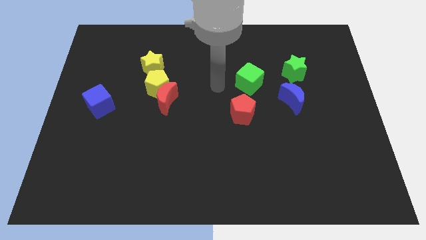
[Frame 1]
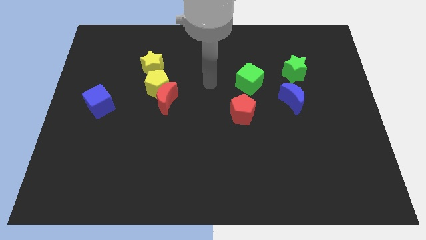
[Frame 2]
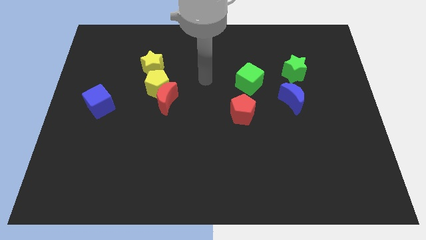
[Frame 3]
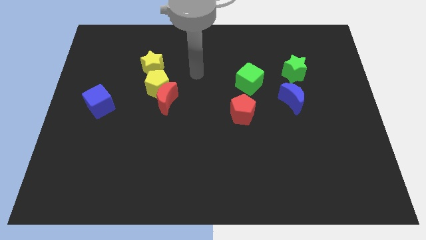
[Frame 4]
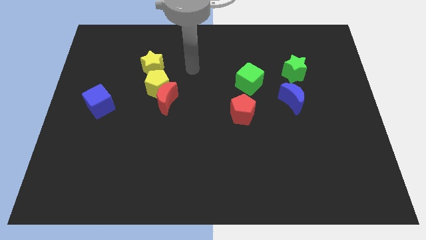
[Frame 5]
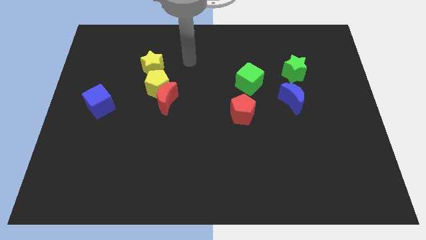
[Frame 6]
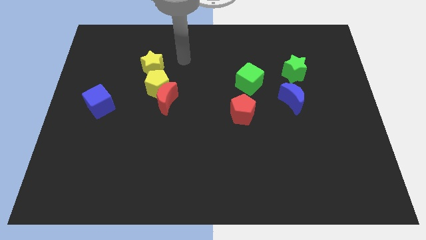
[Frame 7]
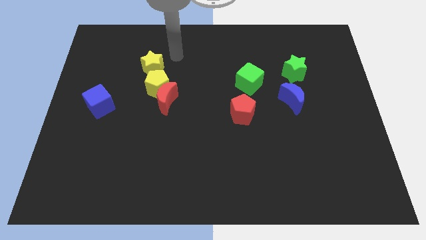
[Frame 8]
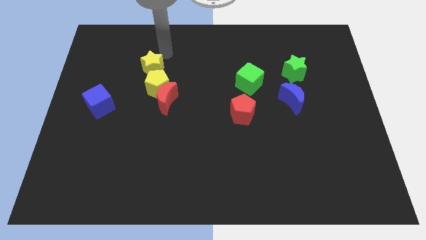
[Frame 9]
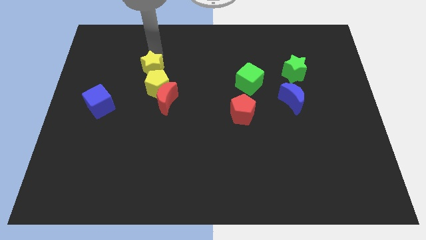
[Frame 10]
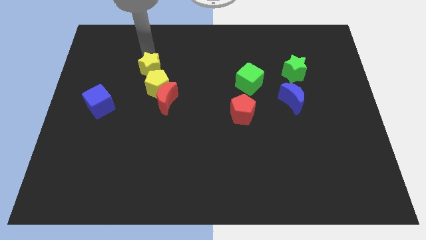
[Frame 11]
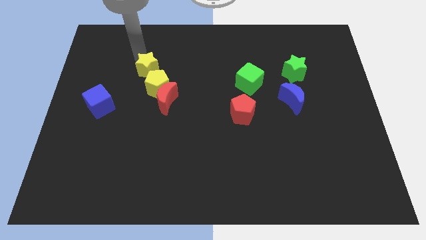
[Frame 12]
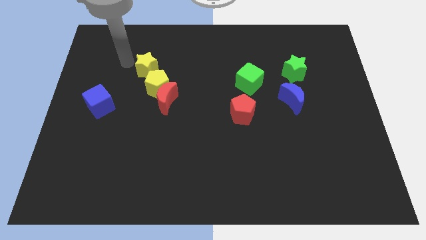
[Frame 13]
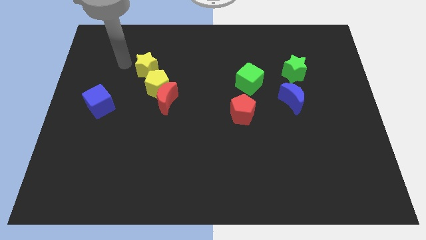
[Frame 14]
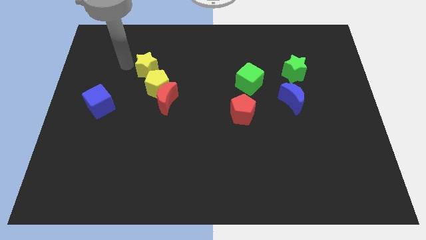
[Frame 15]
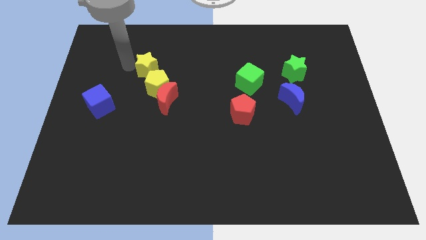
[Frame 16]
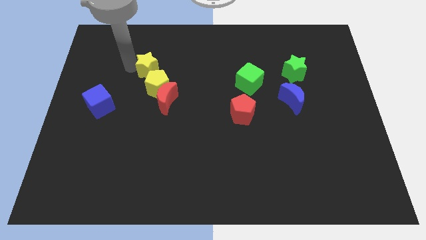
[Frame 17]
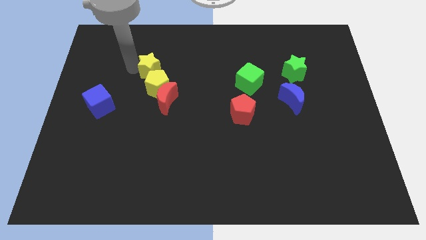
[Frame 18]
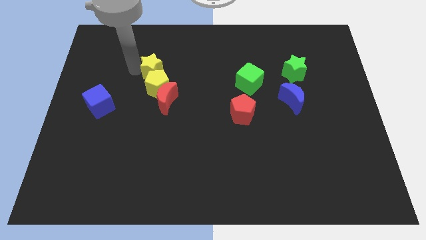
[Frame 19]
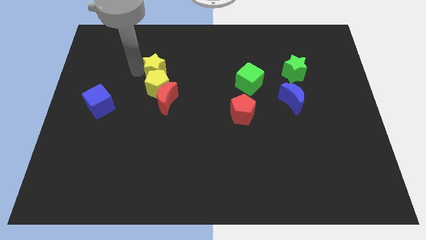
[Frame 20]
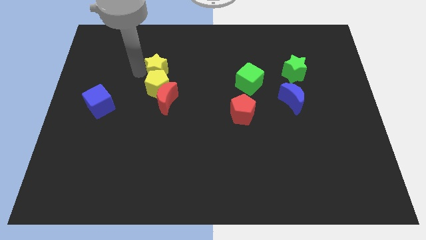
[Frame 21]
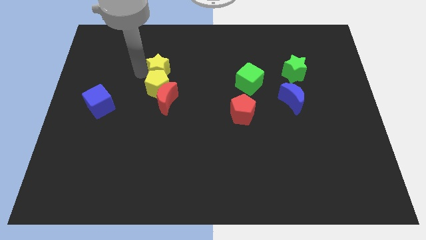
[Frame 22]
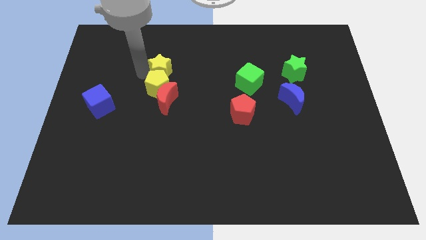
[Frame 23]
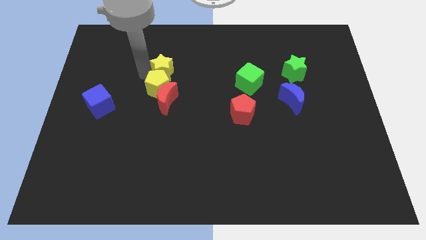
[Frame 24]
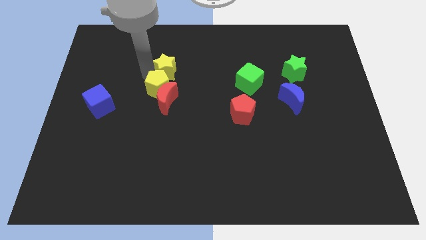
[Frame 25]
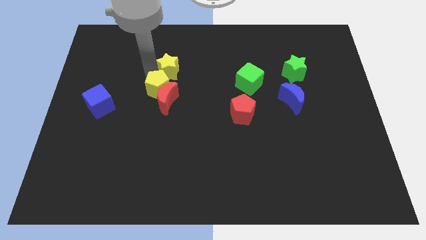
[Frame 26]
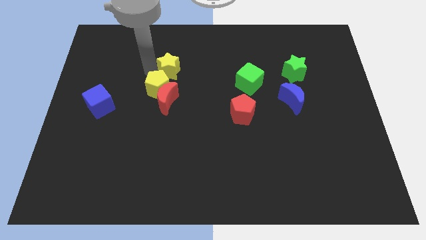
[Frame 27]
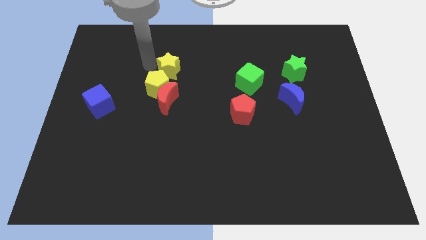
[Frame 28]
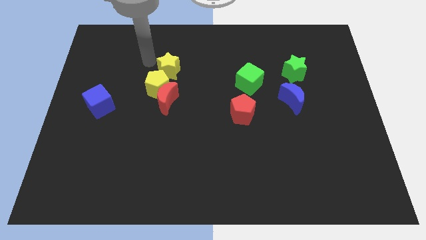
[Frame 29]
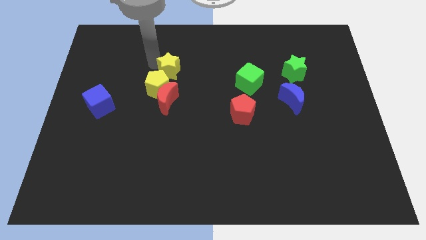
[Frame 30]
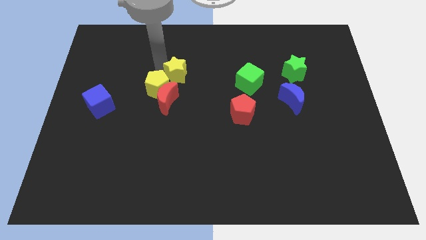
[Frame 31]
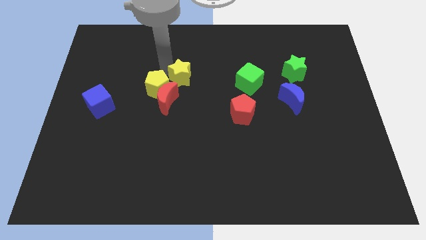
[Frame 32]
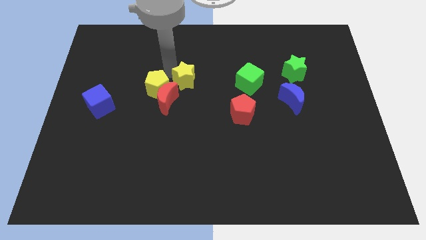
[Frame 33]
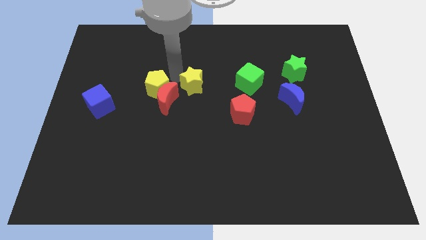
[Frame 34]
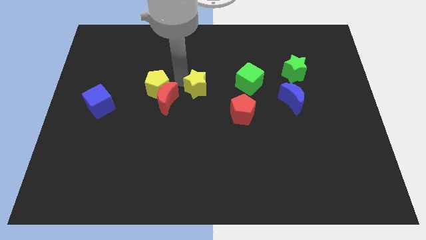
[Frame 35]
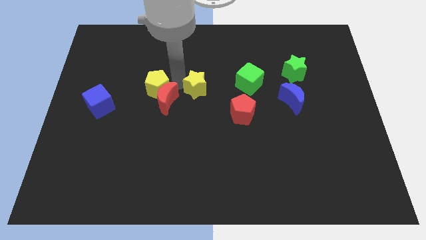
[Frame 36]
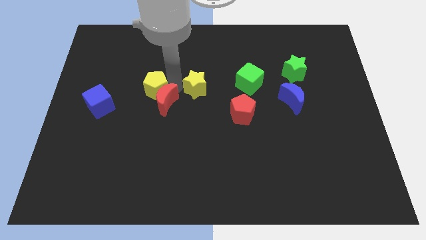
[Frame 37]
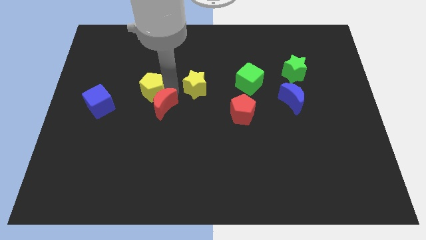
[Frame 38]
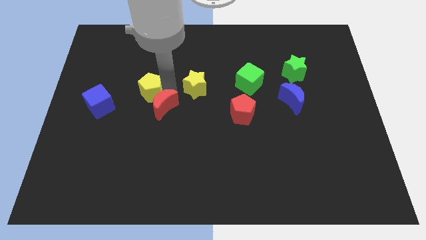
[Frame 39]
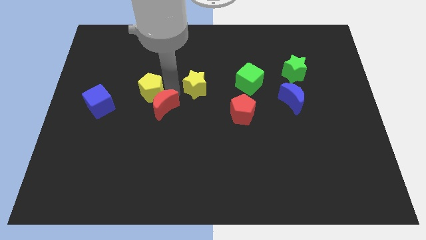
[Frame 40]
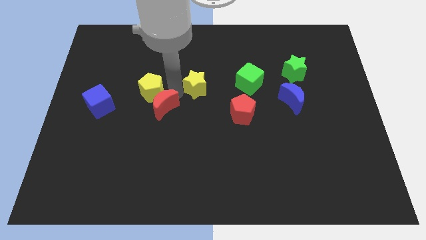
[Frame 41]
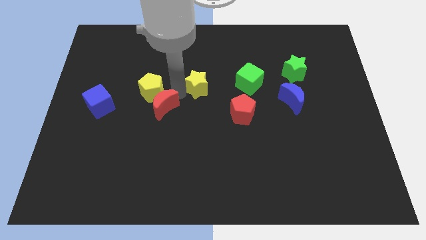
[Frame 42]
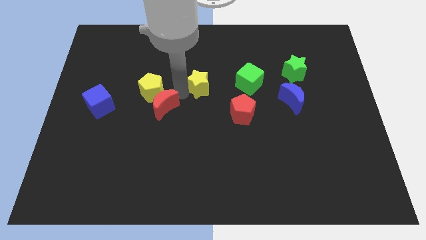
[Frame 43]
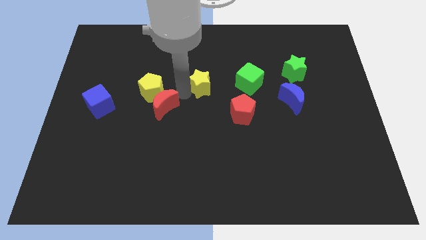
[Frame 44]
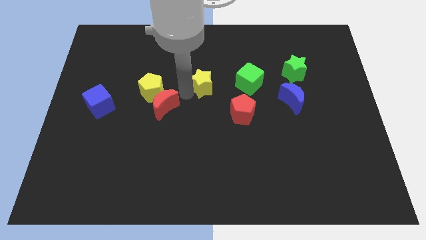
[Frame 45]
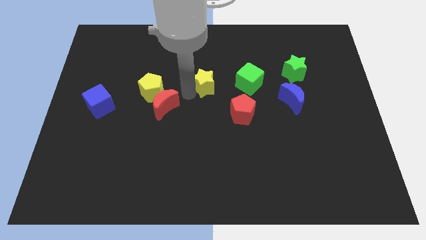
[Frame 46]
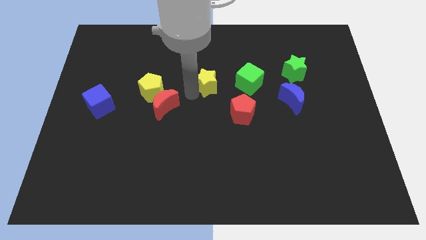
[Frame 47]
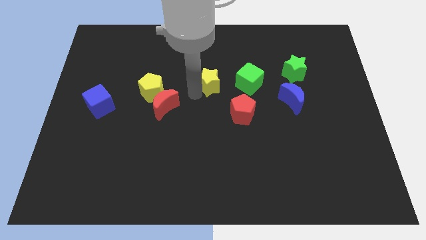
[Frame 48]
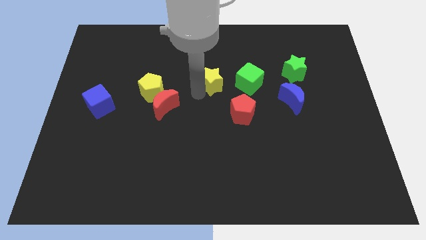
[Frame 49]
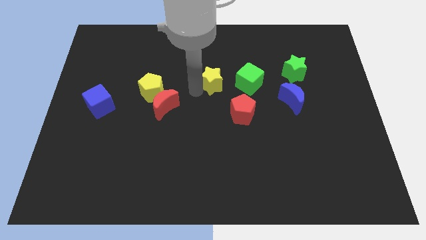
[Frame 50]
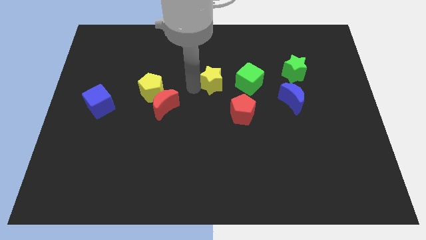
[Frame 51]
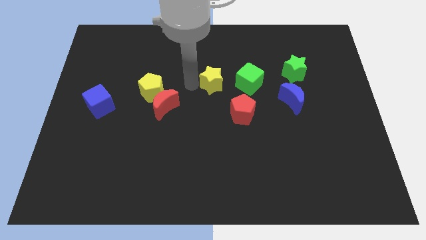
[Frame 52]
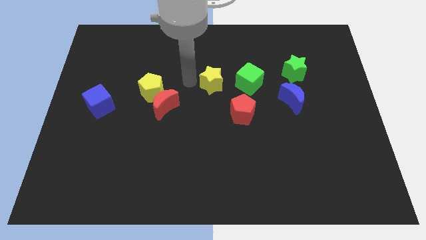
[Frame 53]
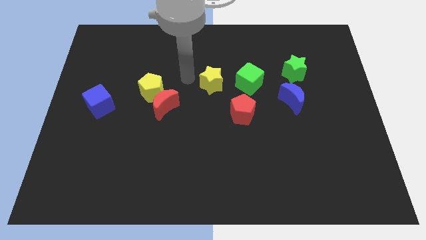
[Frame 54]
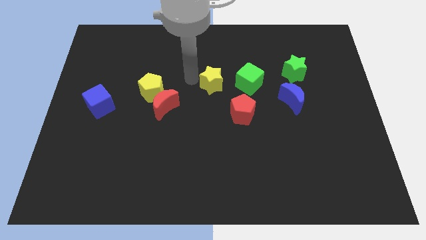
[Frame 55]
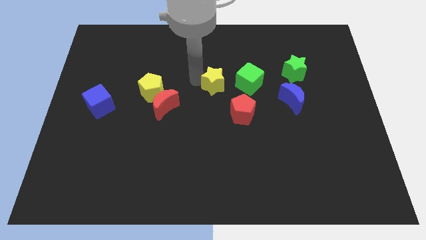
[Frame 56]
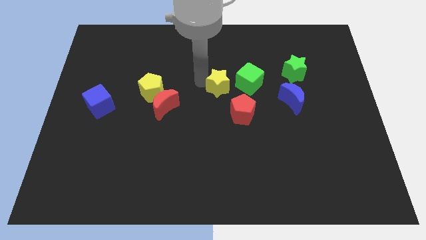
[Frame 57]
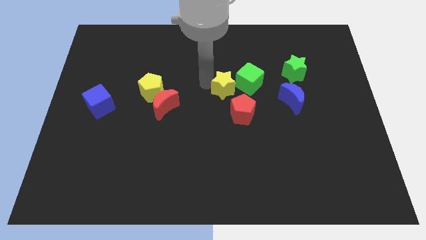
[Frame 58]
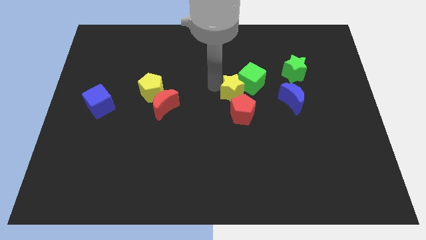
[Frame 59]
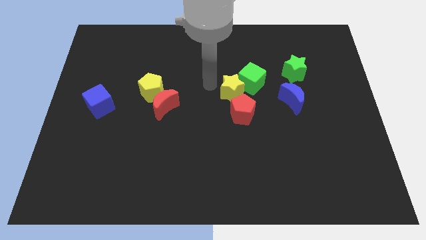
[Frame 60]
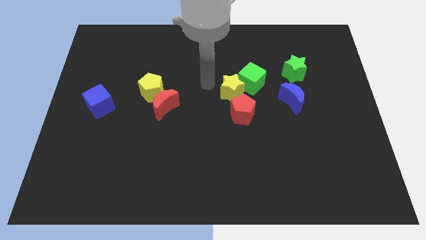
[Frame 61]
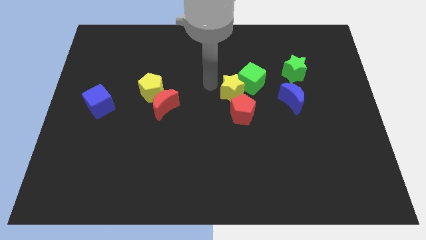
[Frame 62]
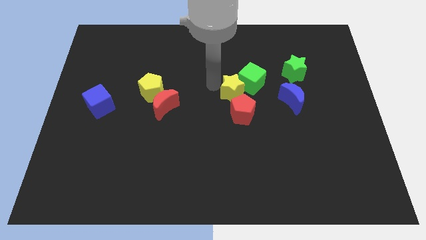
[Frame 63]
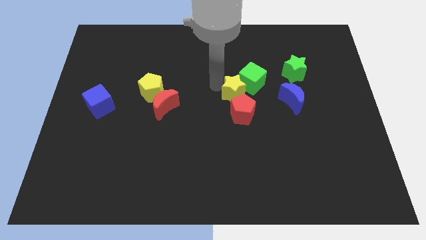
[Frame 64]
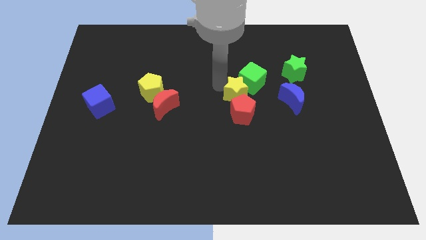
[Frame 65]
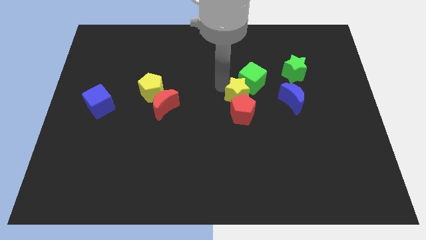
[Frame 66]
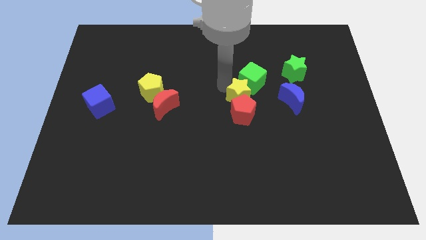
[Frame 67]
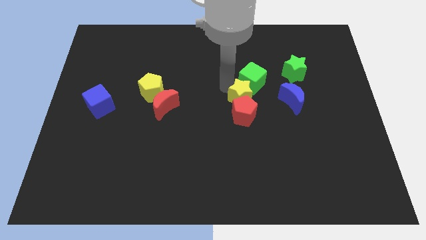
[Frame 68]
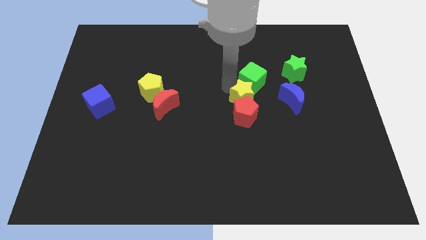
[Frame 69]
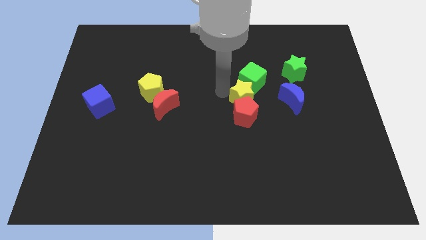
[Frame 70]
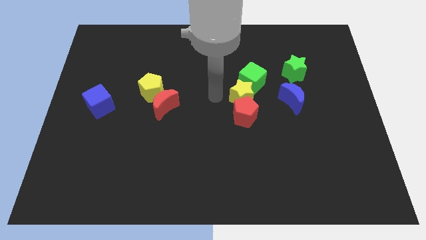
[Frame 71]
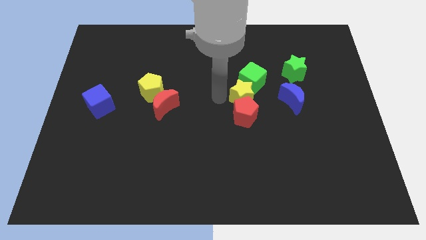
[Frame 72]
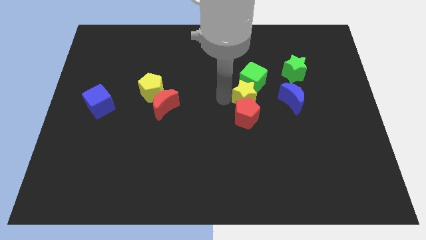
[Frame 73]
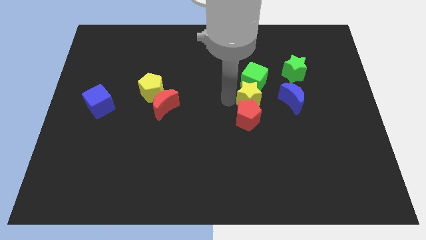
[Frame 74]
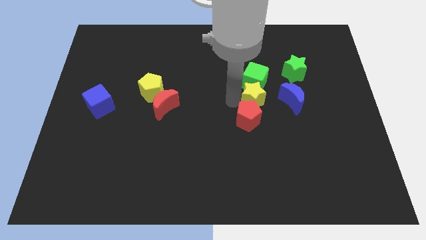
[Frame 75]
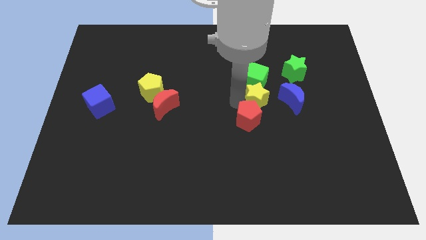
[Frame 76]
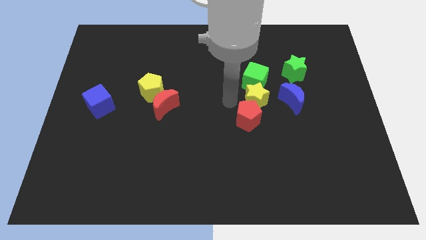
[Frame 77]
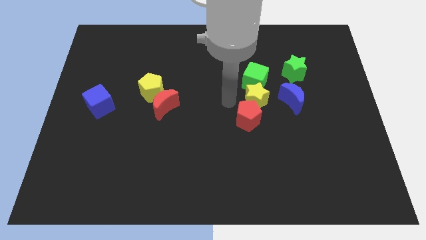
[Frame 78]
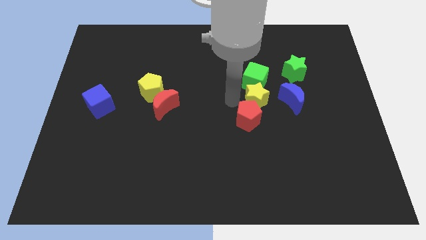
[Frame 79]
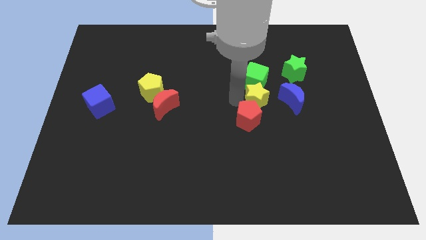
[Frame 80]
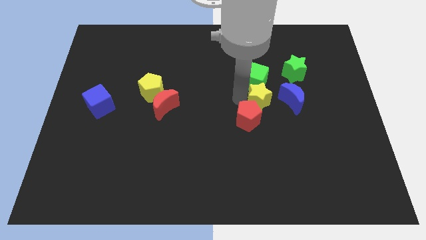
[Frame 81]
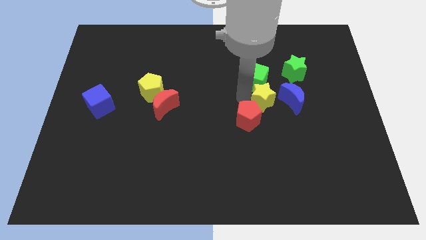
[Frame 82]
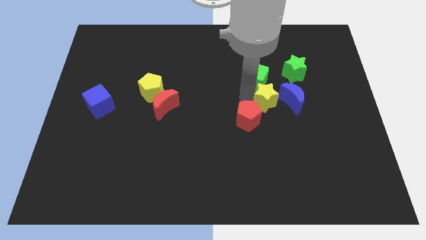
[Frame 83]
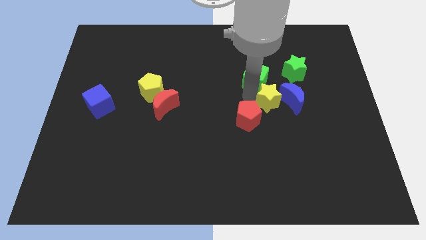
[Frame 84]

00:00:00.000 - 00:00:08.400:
push the yellow star to the blue moon
